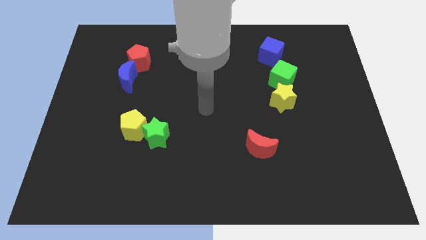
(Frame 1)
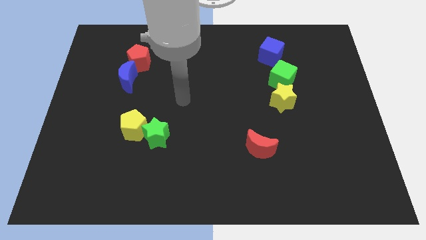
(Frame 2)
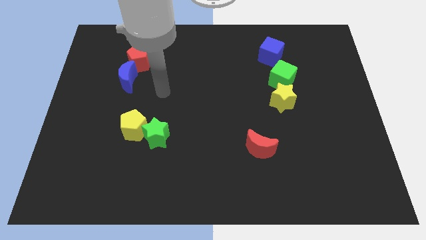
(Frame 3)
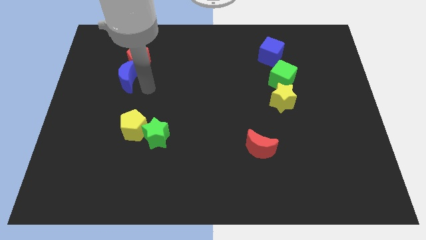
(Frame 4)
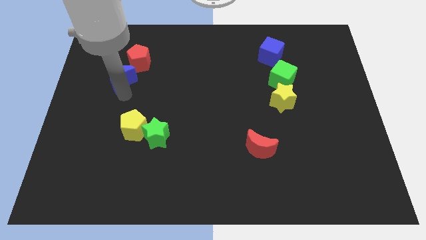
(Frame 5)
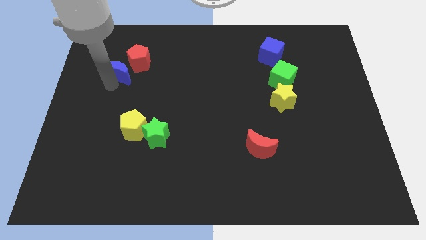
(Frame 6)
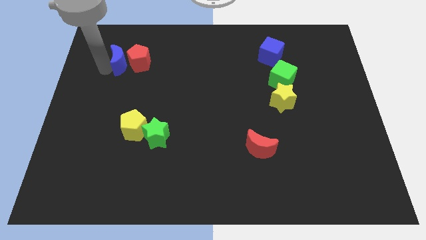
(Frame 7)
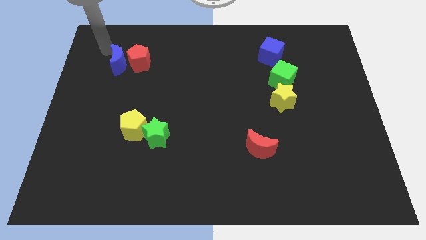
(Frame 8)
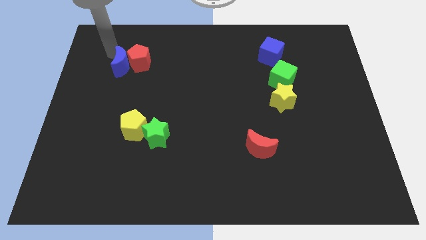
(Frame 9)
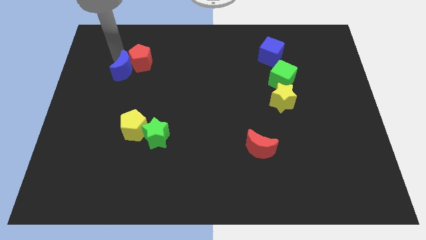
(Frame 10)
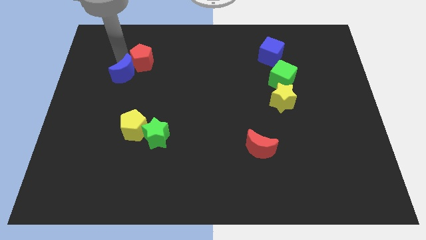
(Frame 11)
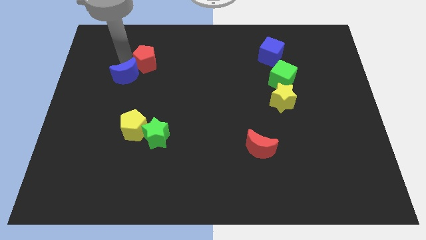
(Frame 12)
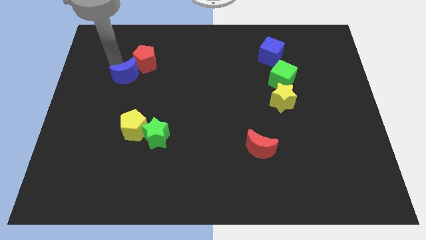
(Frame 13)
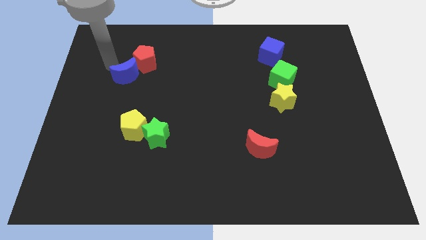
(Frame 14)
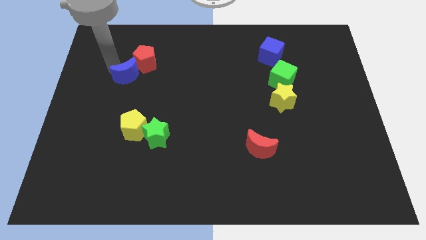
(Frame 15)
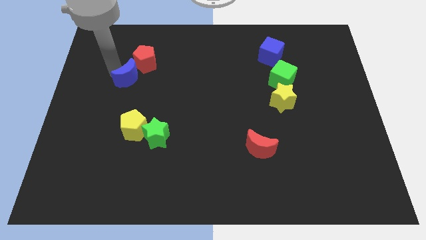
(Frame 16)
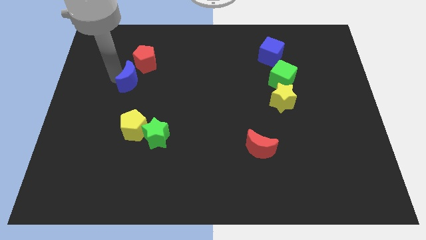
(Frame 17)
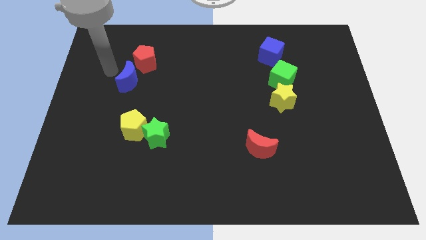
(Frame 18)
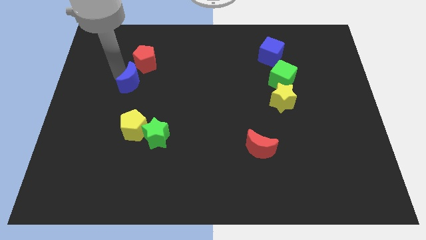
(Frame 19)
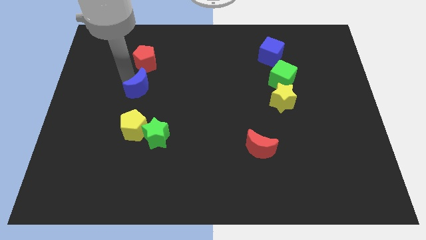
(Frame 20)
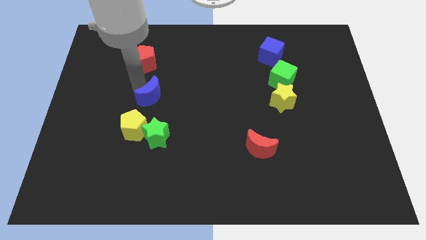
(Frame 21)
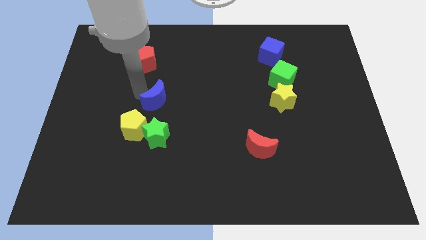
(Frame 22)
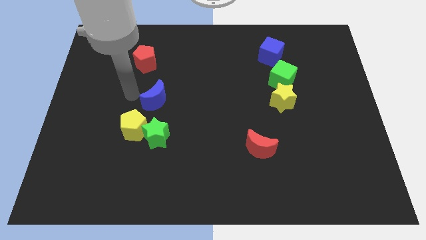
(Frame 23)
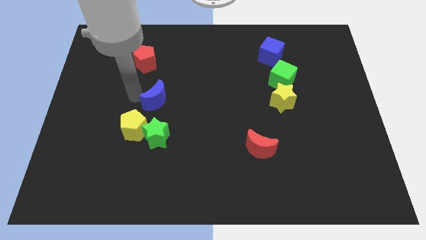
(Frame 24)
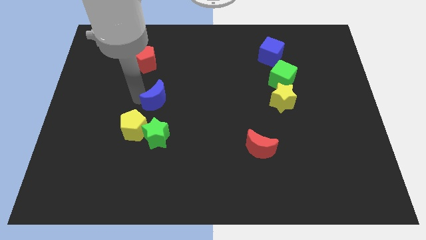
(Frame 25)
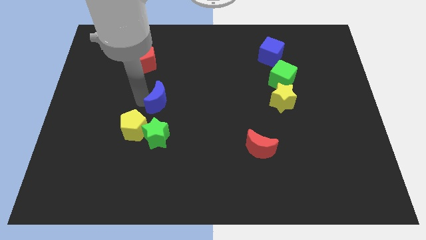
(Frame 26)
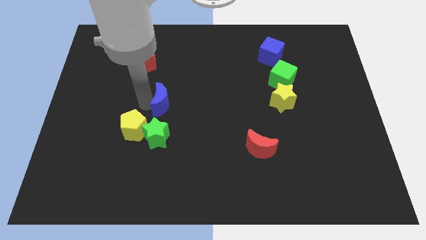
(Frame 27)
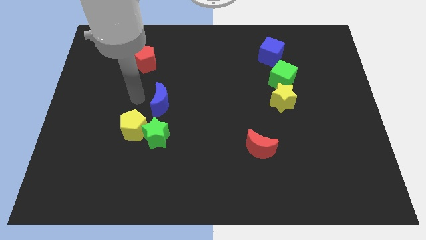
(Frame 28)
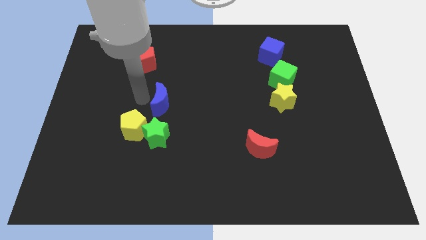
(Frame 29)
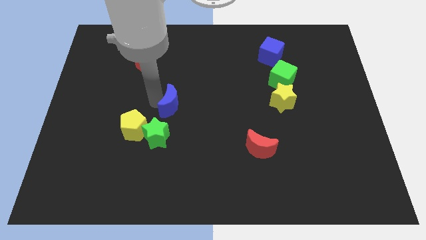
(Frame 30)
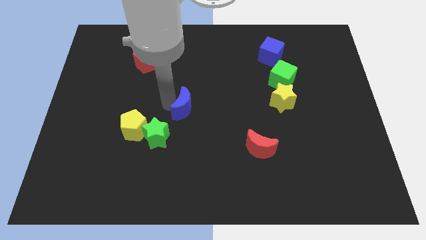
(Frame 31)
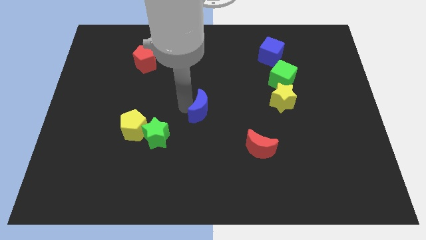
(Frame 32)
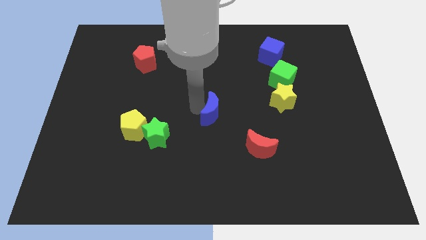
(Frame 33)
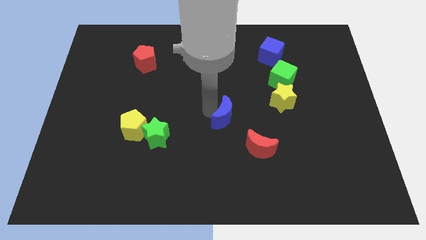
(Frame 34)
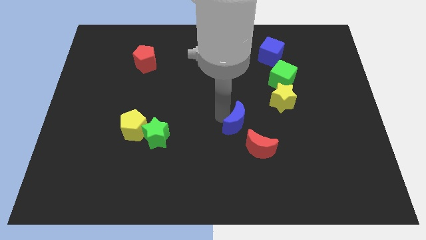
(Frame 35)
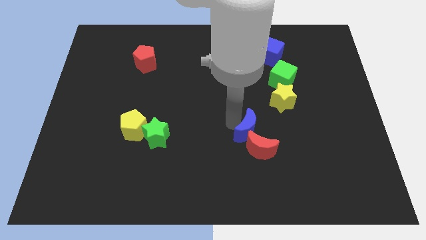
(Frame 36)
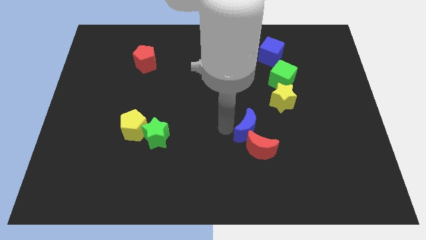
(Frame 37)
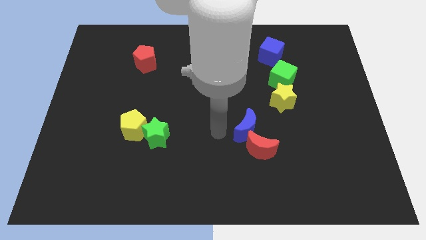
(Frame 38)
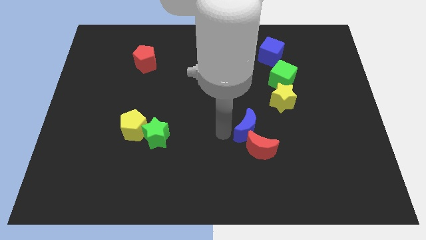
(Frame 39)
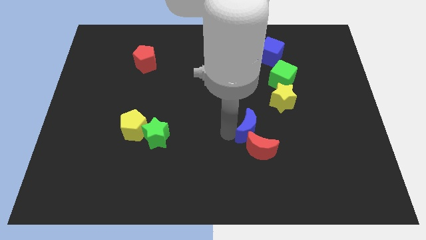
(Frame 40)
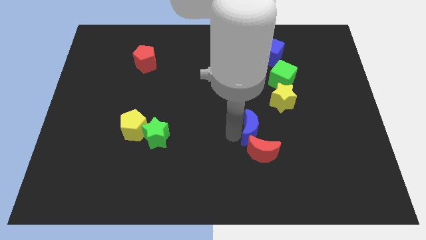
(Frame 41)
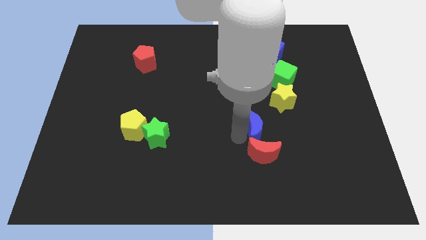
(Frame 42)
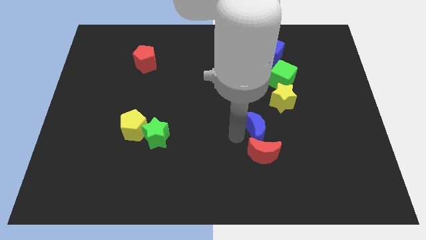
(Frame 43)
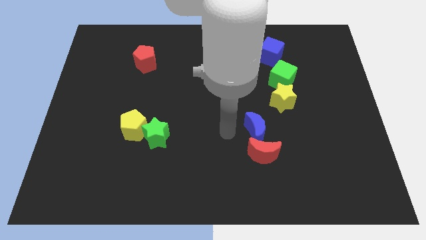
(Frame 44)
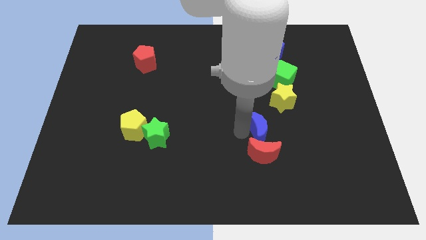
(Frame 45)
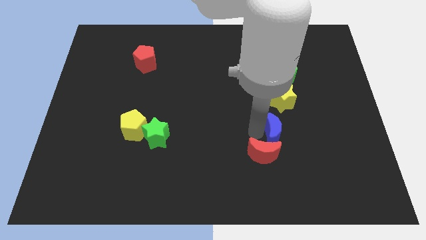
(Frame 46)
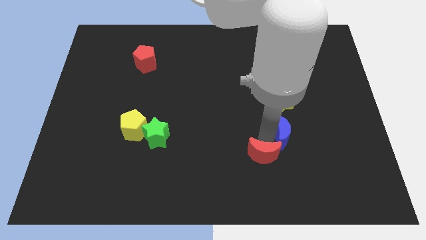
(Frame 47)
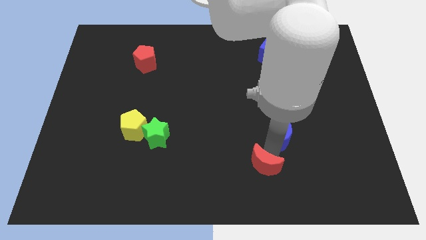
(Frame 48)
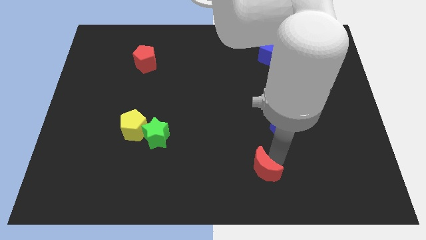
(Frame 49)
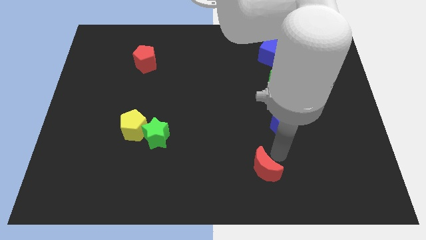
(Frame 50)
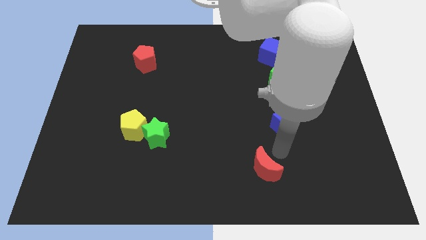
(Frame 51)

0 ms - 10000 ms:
push the blue moon below the green cube
